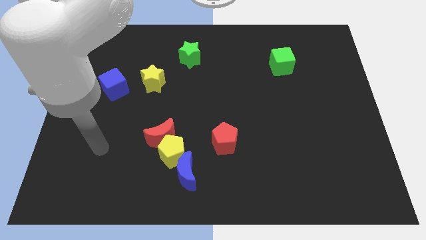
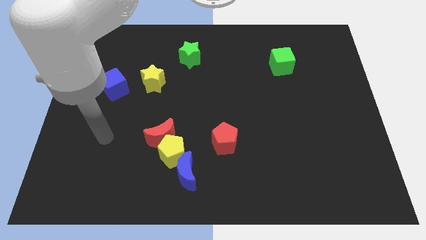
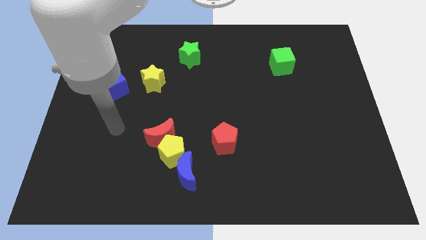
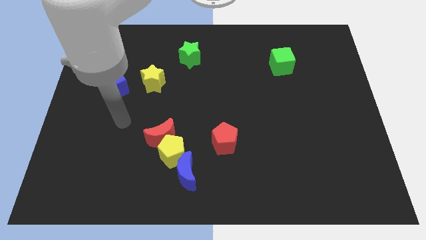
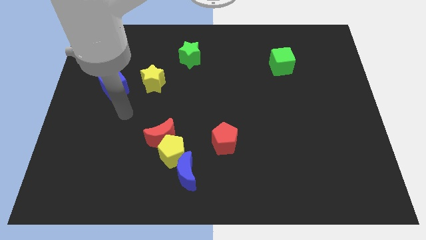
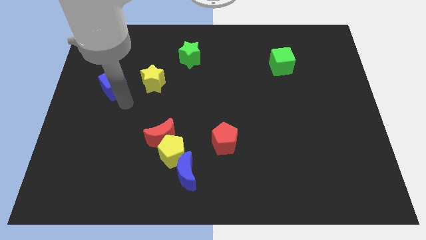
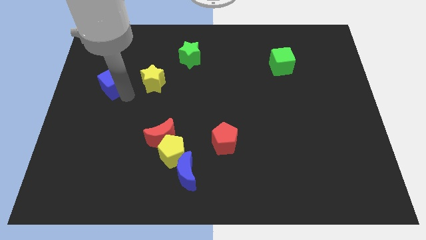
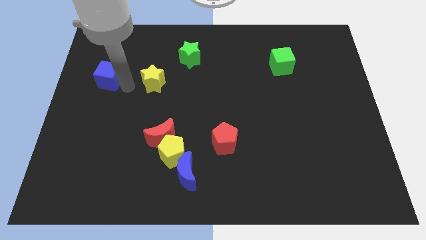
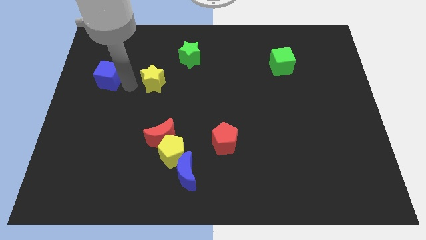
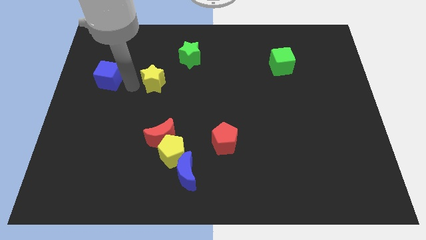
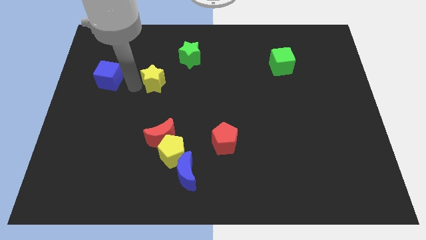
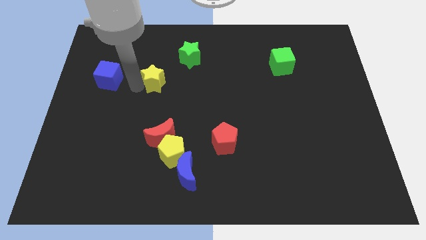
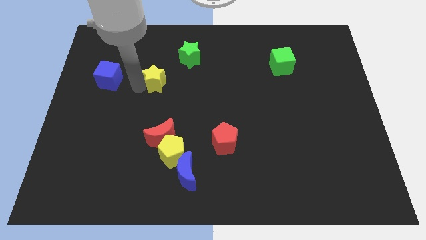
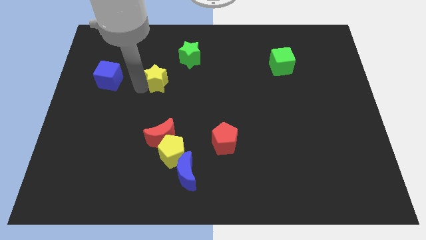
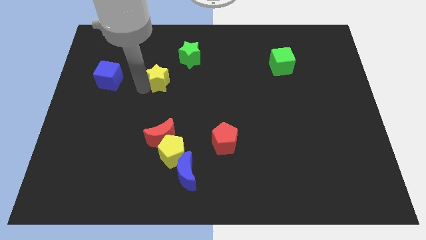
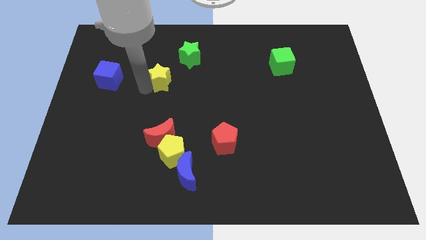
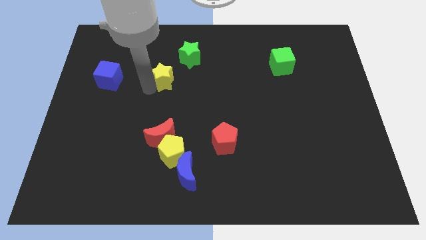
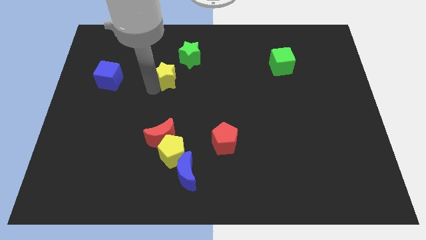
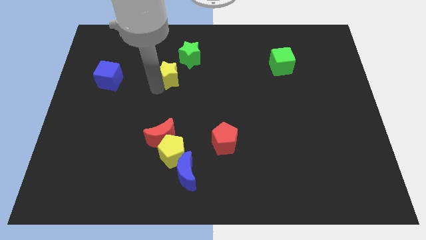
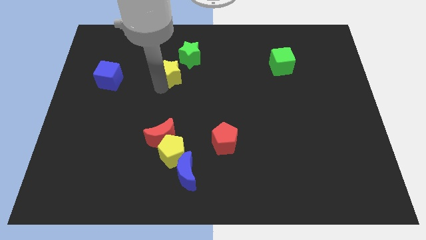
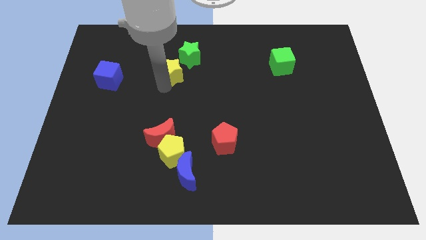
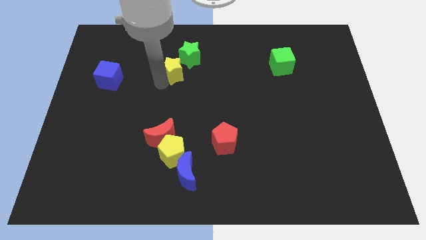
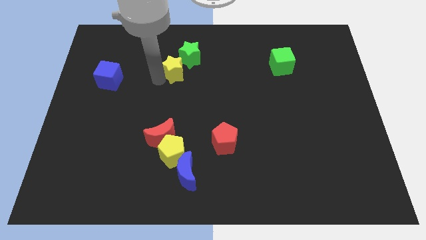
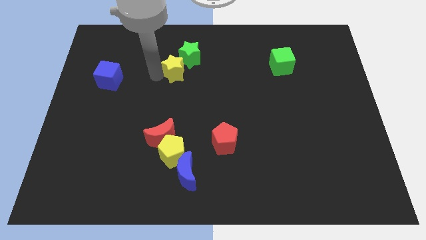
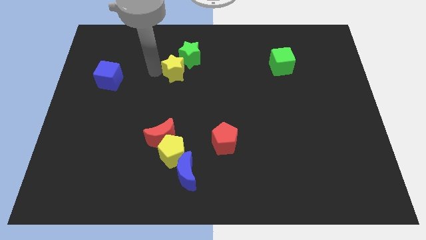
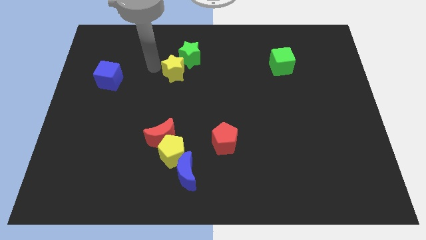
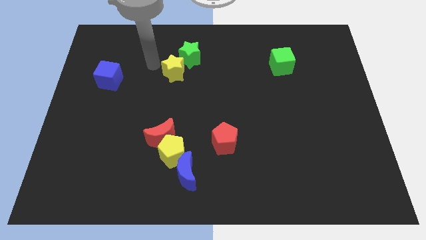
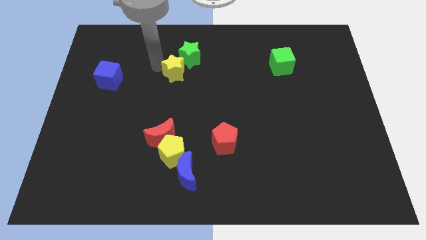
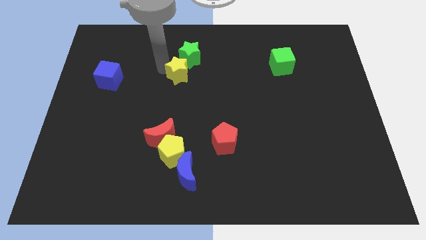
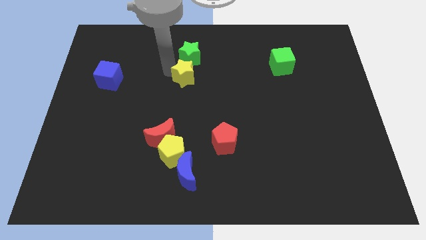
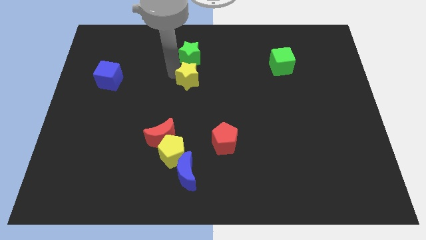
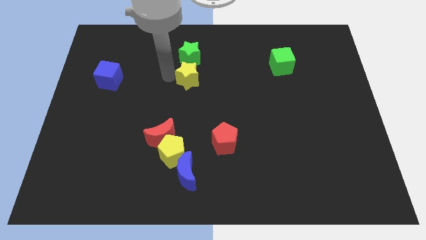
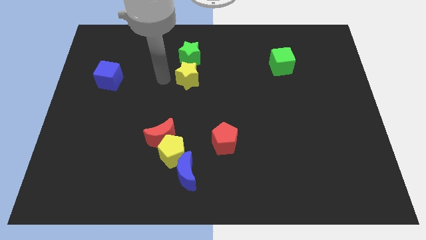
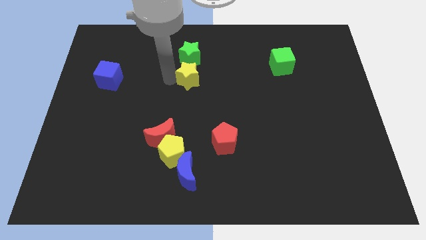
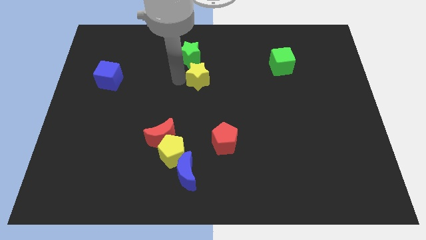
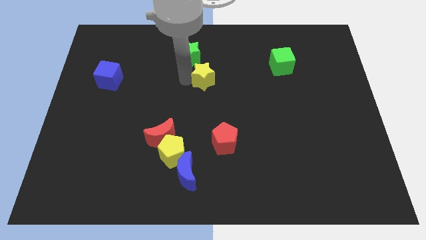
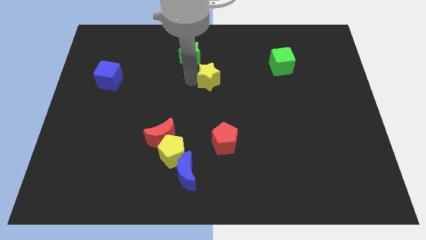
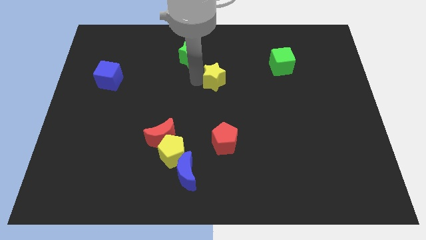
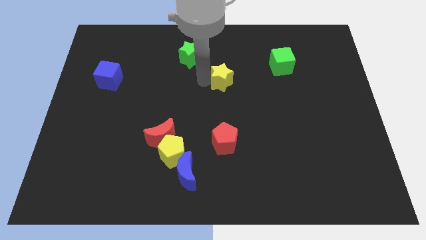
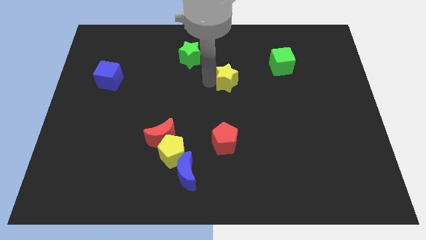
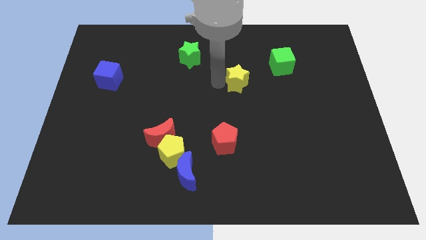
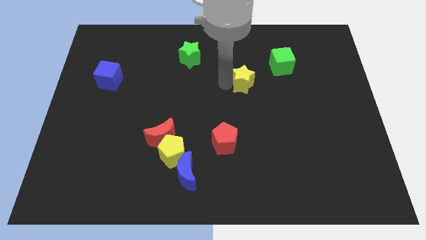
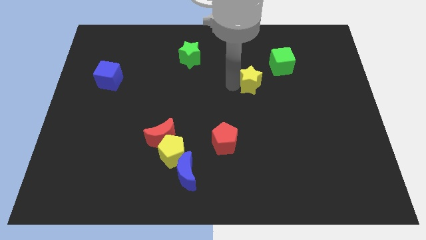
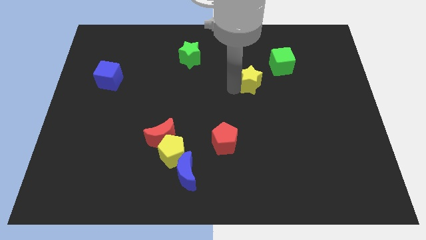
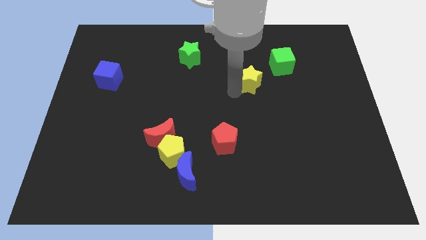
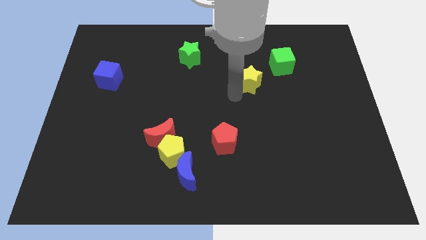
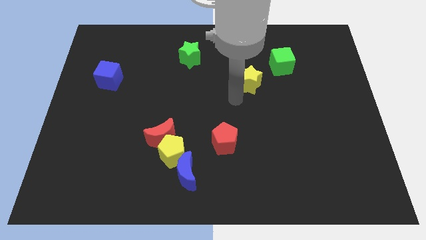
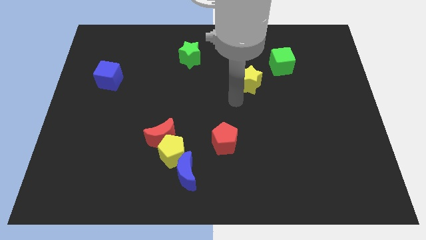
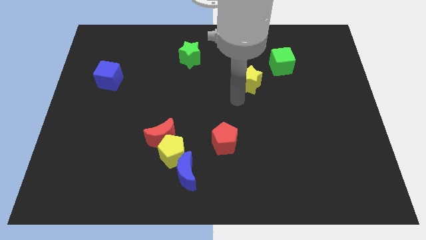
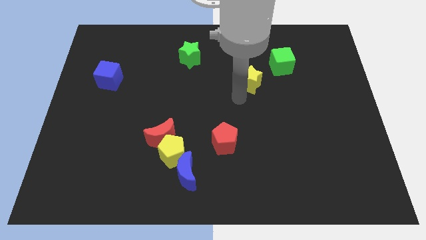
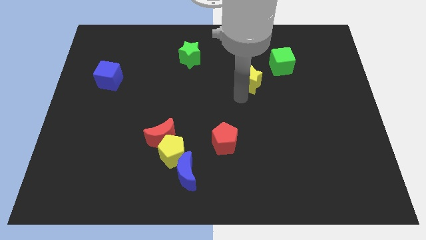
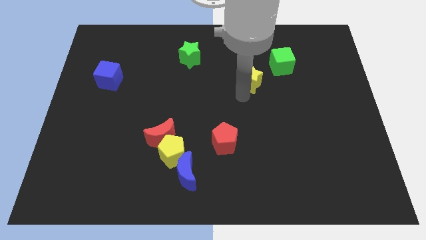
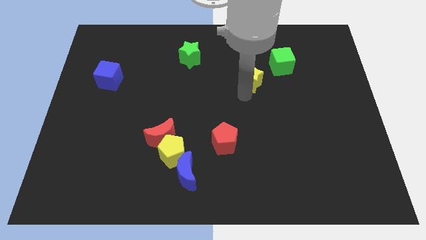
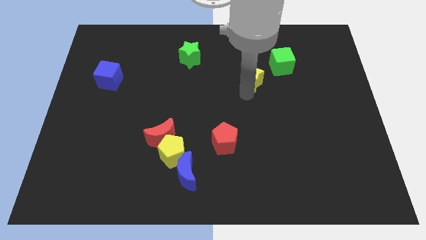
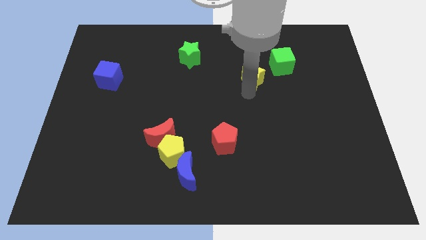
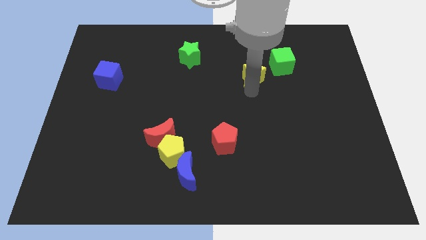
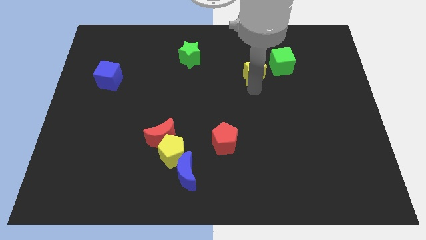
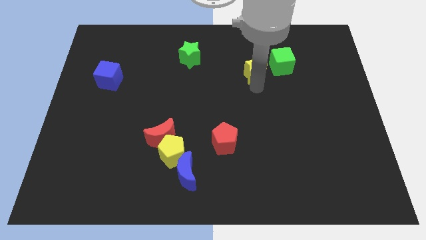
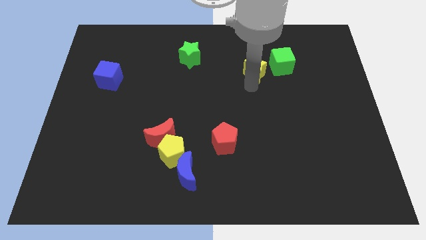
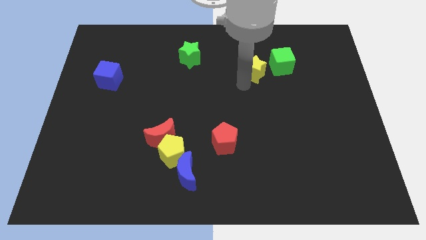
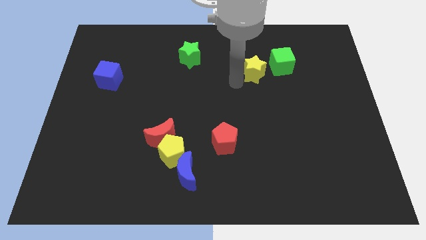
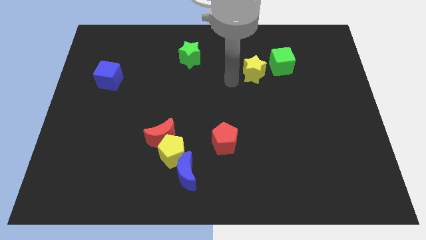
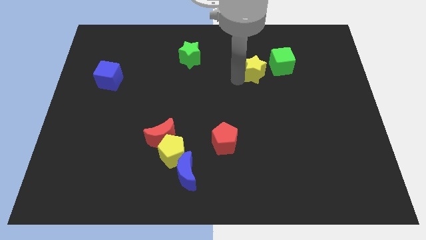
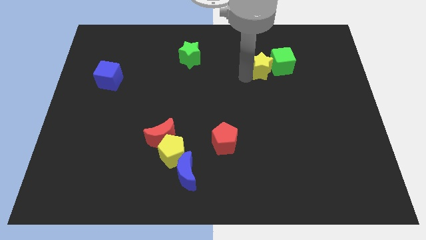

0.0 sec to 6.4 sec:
put the yellow star next to the green cube

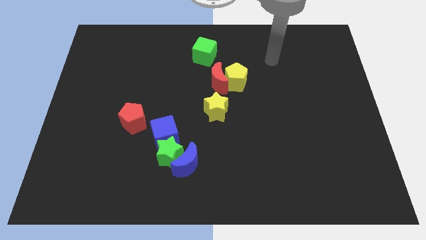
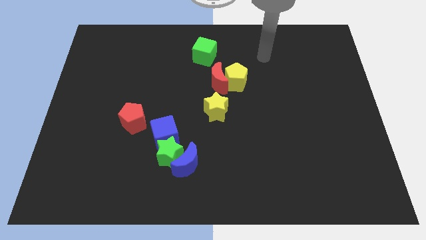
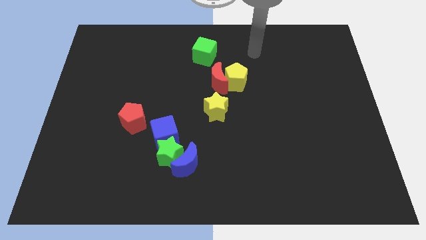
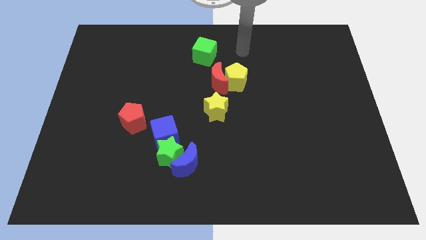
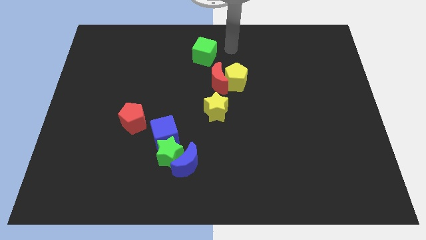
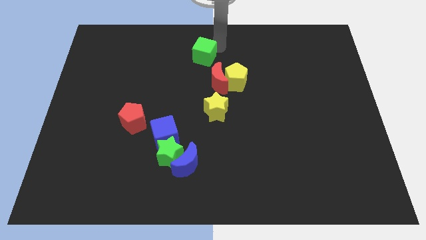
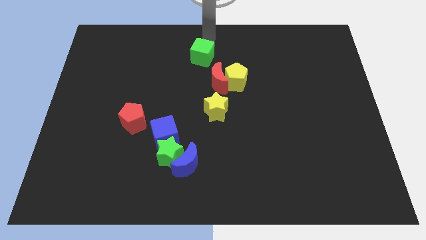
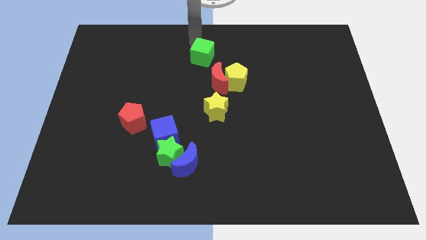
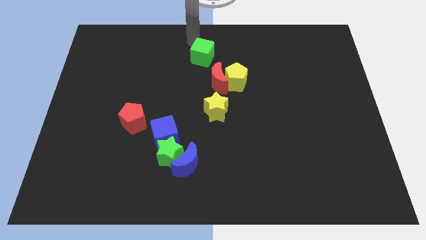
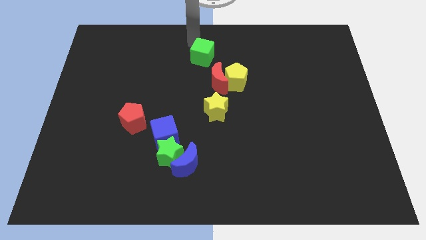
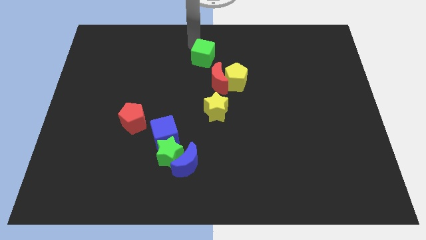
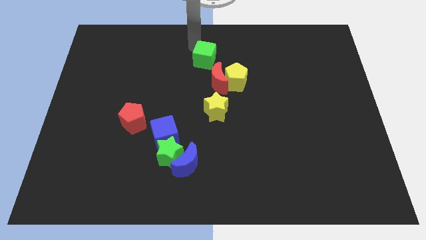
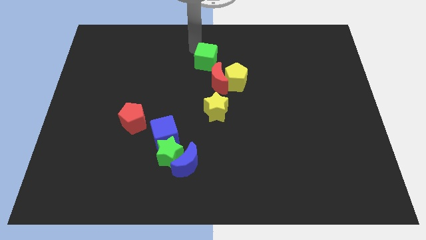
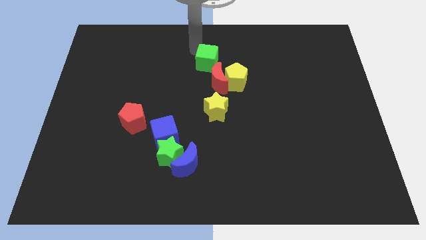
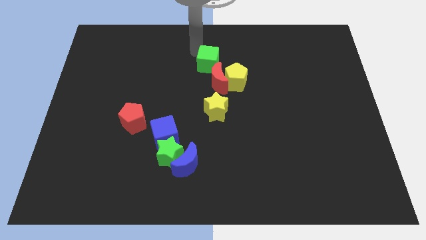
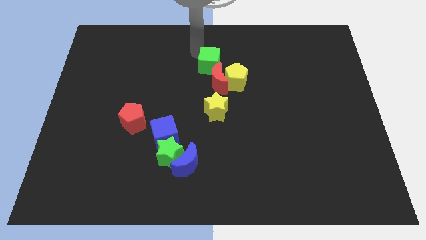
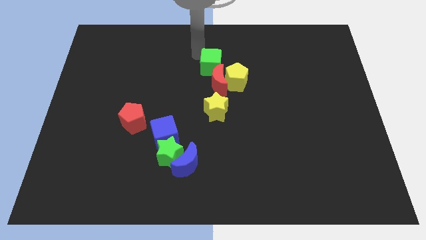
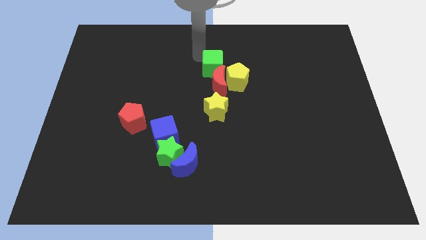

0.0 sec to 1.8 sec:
put the green cube next to the red moon
